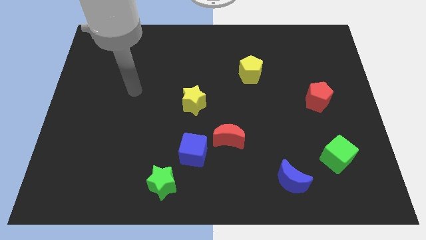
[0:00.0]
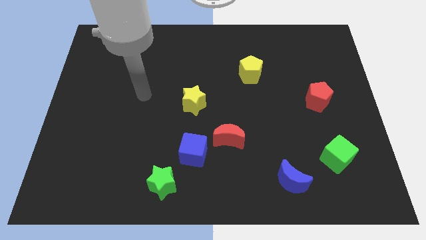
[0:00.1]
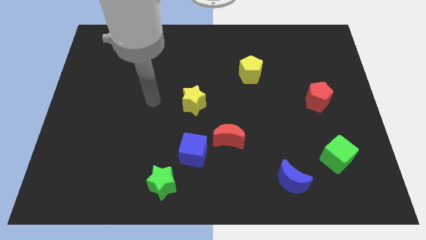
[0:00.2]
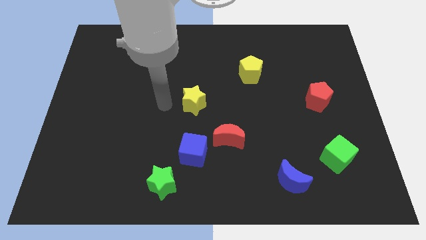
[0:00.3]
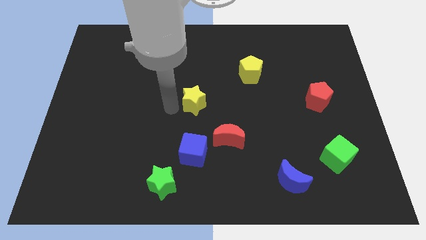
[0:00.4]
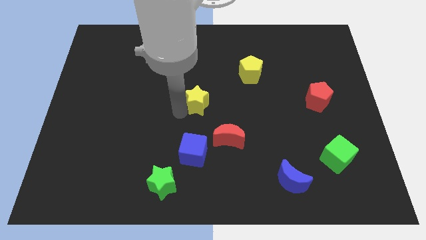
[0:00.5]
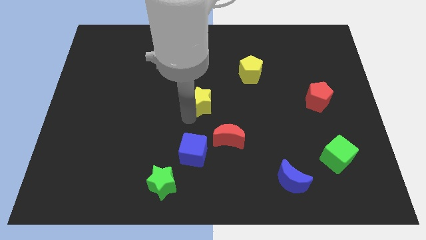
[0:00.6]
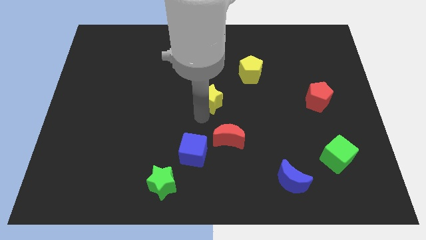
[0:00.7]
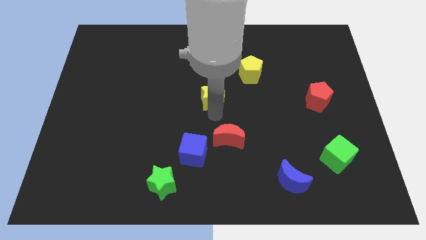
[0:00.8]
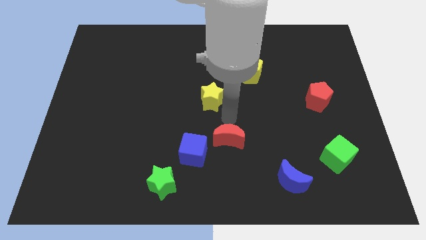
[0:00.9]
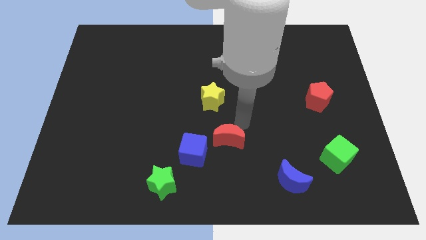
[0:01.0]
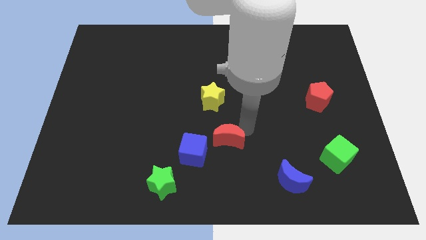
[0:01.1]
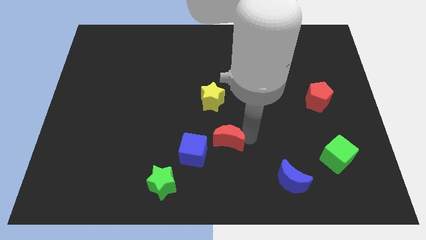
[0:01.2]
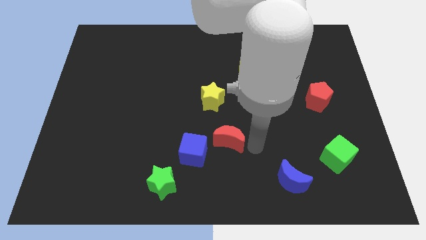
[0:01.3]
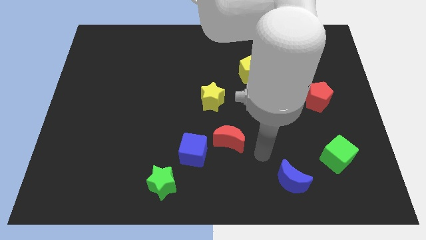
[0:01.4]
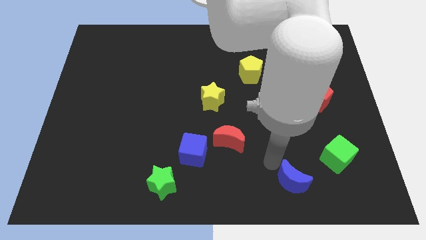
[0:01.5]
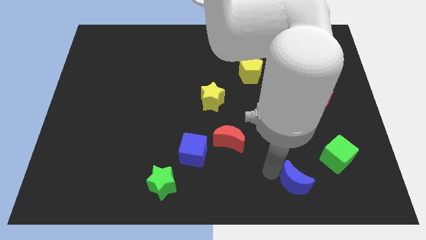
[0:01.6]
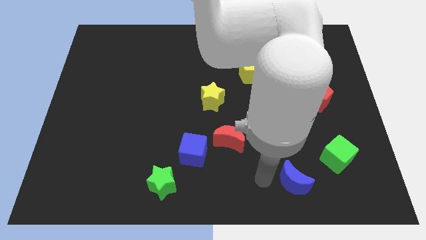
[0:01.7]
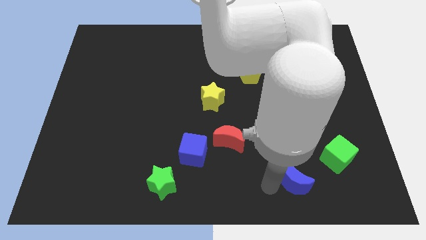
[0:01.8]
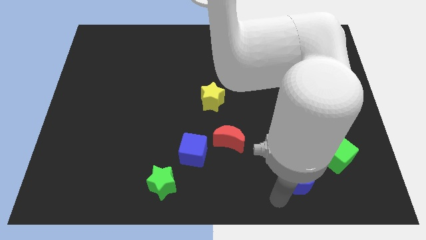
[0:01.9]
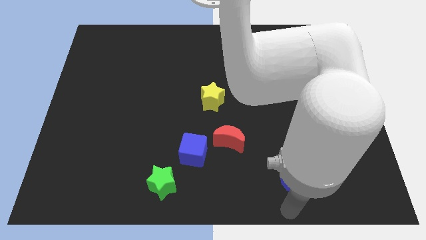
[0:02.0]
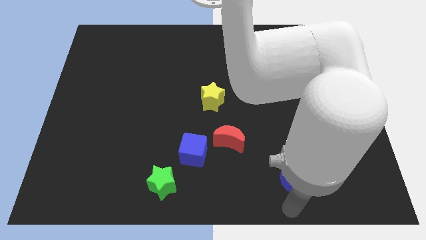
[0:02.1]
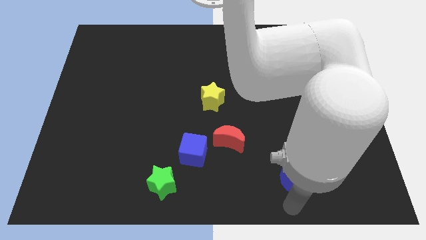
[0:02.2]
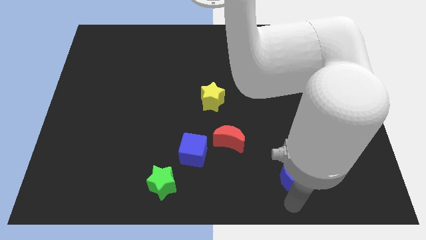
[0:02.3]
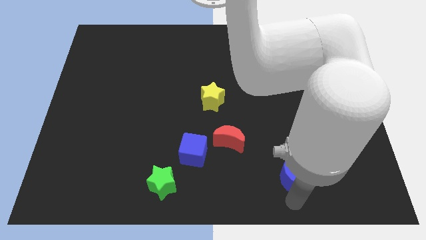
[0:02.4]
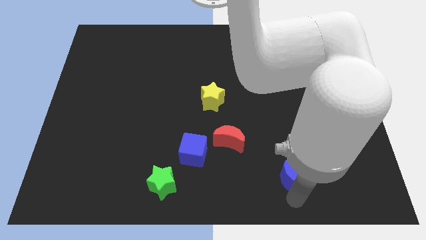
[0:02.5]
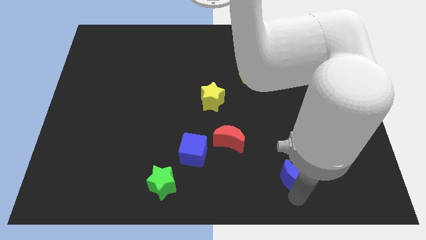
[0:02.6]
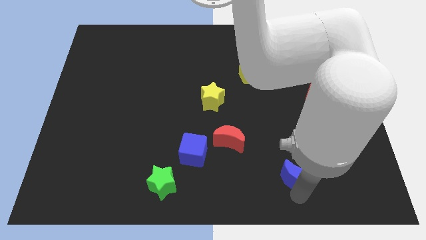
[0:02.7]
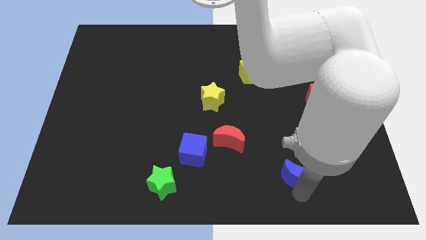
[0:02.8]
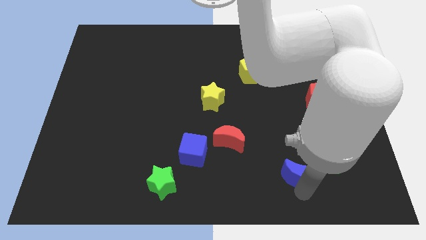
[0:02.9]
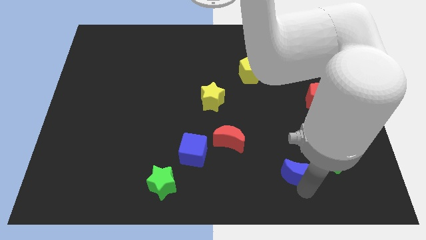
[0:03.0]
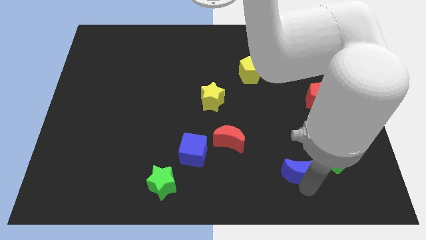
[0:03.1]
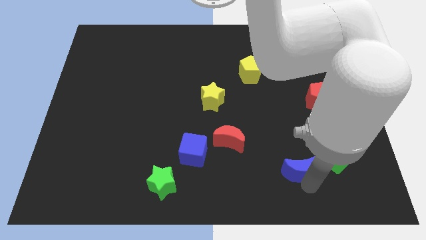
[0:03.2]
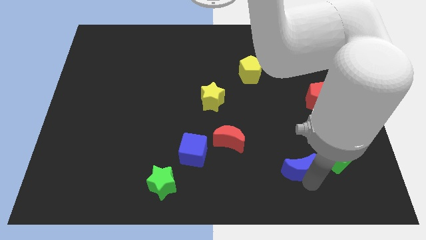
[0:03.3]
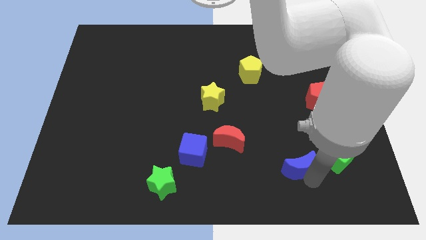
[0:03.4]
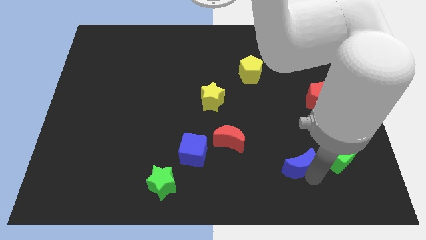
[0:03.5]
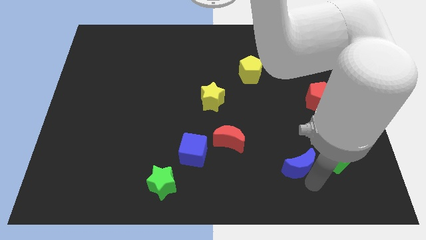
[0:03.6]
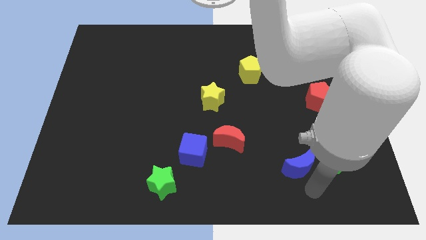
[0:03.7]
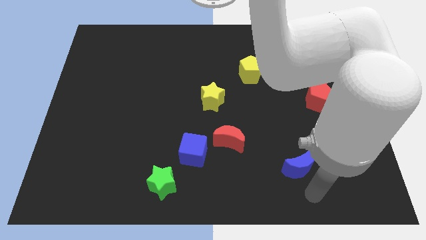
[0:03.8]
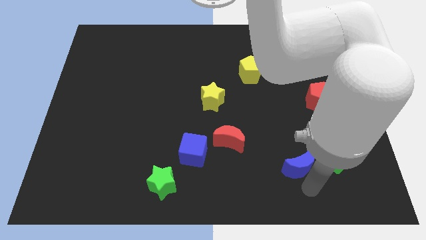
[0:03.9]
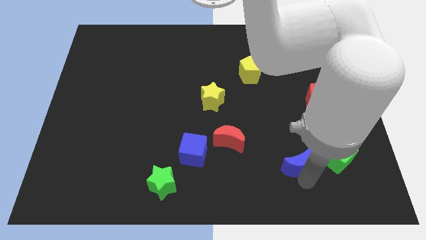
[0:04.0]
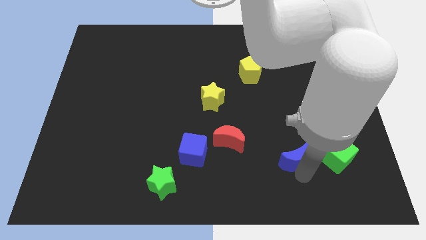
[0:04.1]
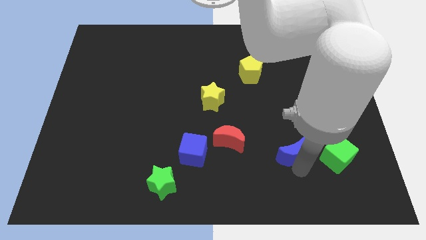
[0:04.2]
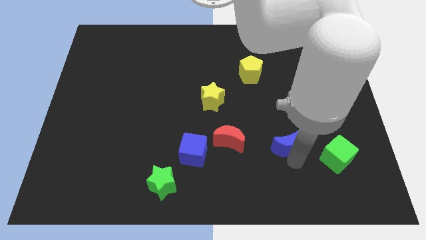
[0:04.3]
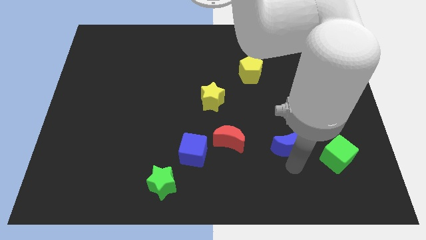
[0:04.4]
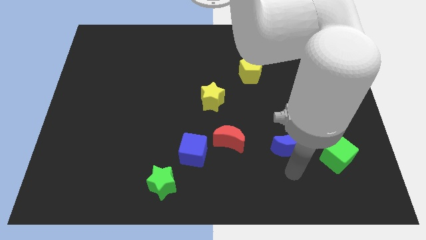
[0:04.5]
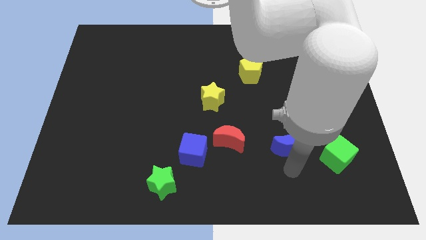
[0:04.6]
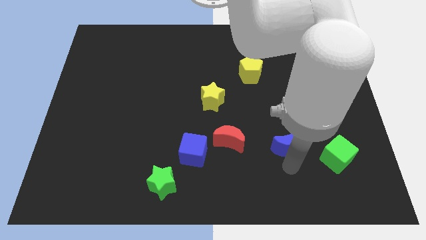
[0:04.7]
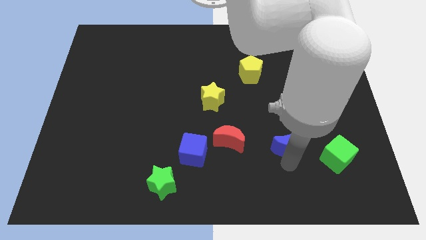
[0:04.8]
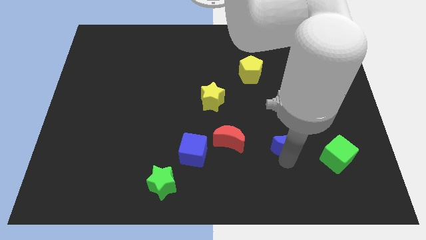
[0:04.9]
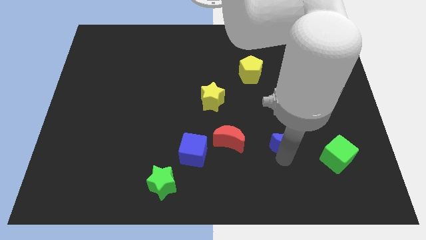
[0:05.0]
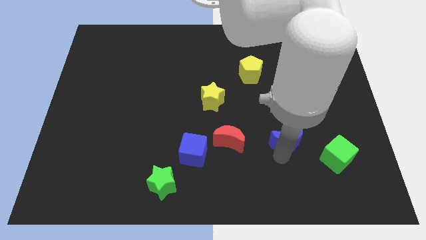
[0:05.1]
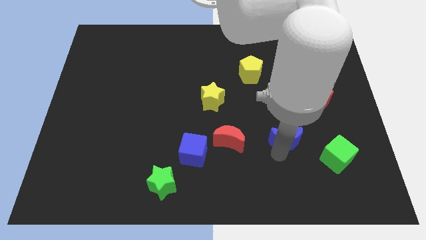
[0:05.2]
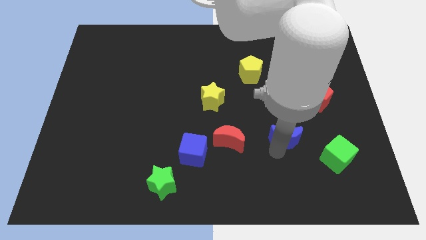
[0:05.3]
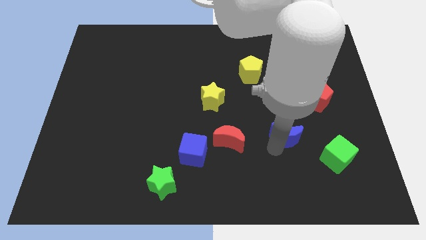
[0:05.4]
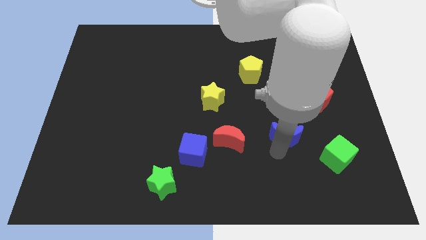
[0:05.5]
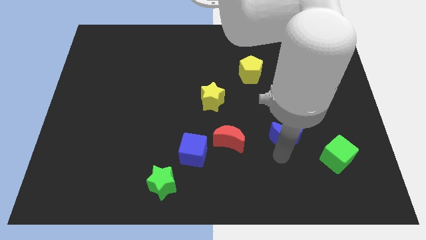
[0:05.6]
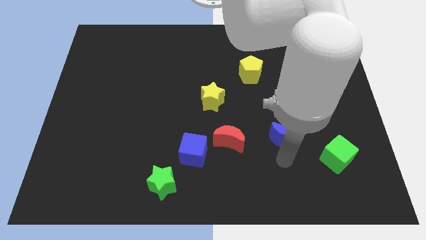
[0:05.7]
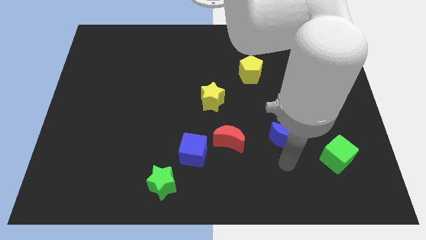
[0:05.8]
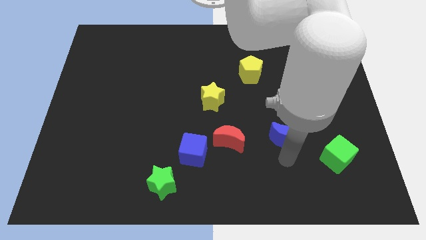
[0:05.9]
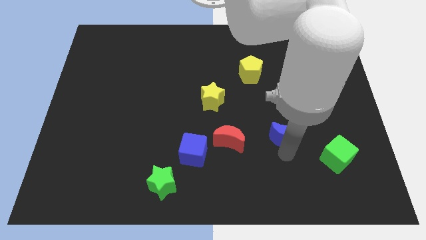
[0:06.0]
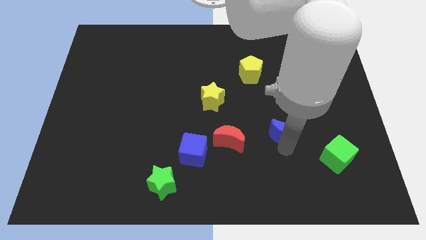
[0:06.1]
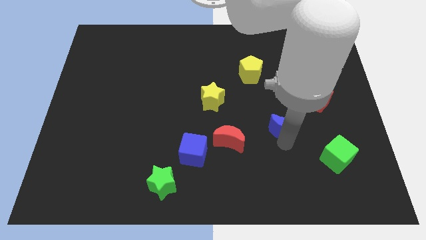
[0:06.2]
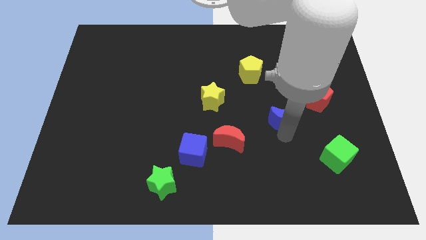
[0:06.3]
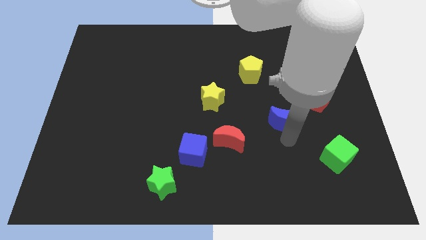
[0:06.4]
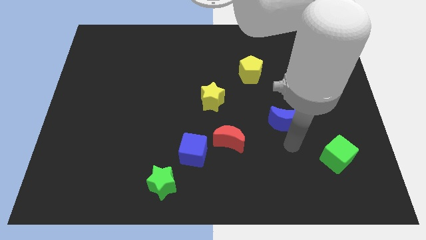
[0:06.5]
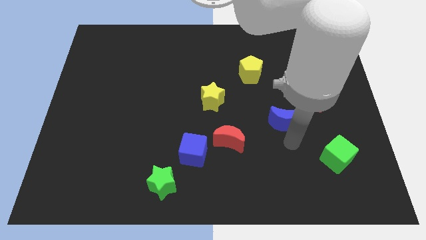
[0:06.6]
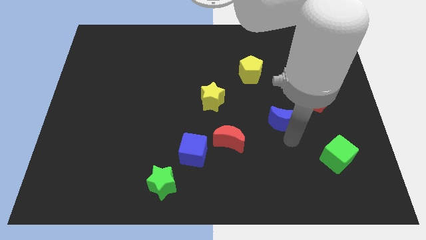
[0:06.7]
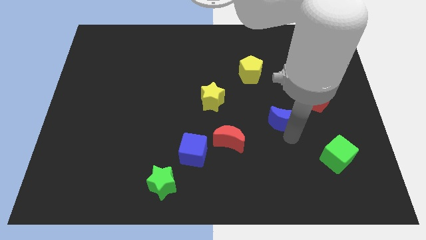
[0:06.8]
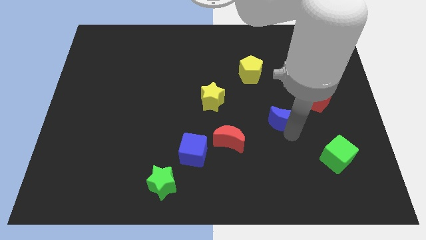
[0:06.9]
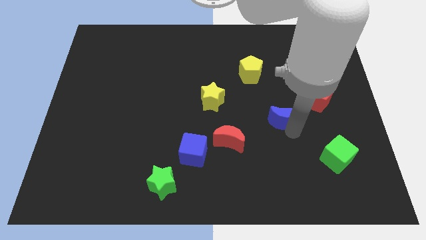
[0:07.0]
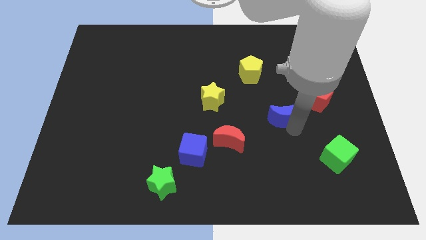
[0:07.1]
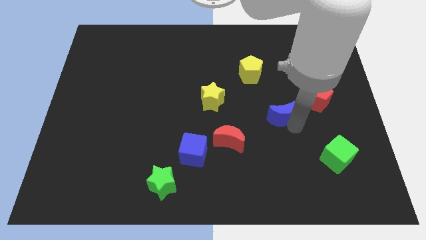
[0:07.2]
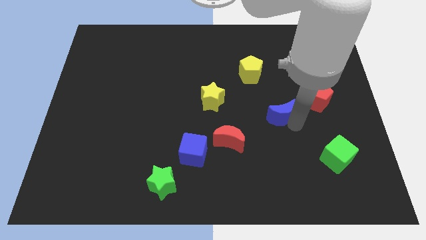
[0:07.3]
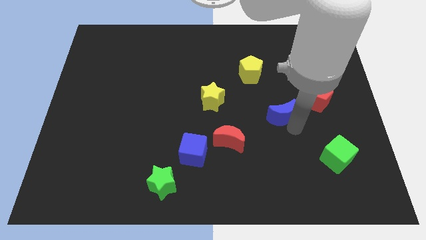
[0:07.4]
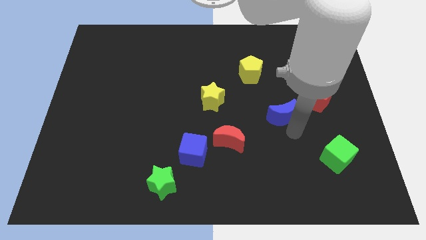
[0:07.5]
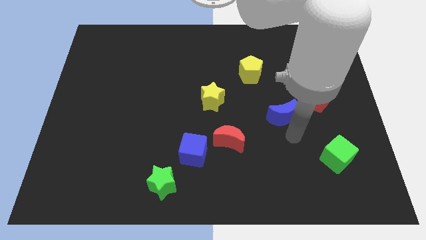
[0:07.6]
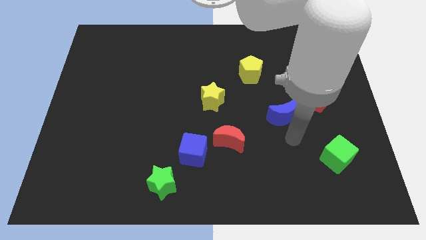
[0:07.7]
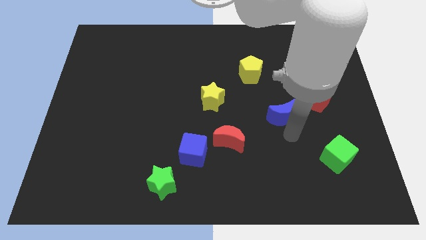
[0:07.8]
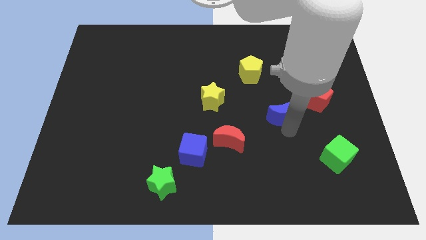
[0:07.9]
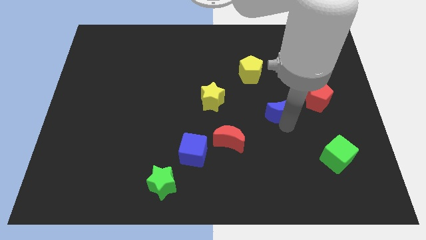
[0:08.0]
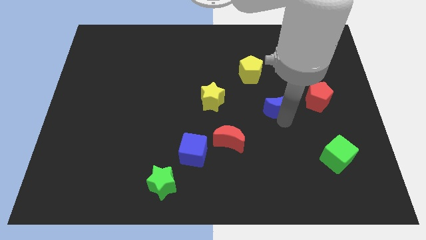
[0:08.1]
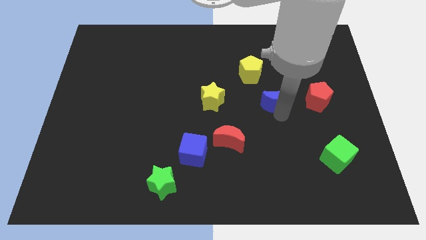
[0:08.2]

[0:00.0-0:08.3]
slide the blue moon to the bottom right side of the yellow pentagon
